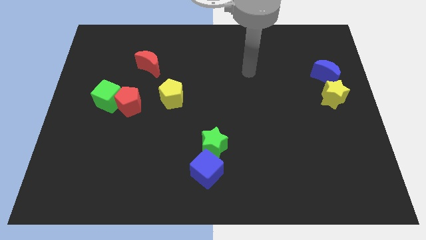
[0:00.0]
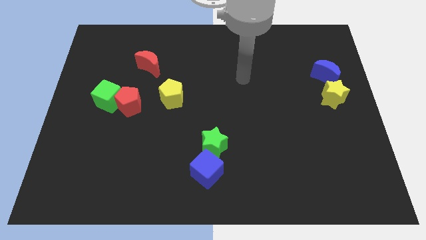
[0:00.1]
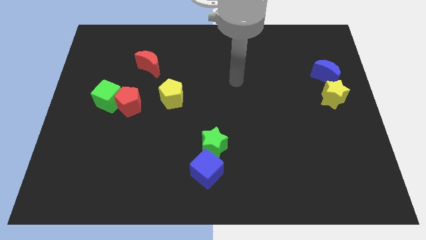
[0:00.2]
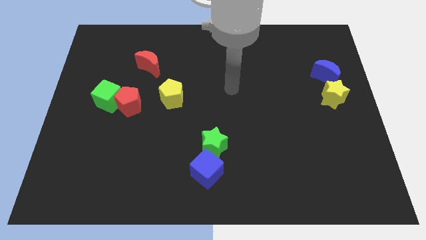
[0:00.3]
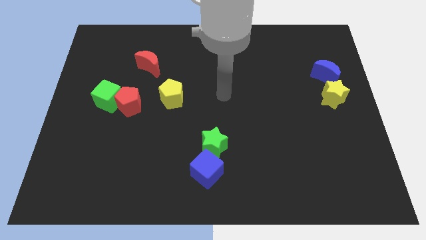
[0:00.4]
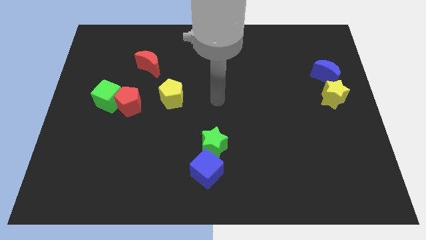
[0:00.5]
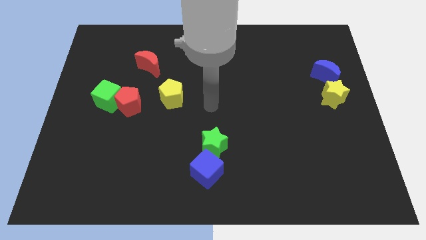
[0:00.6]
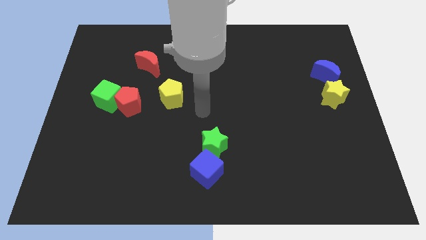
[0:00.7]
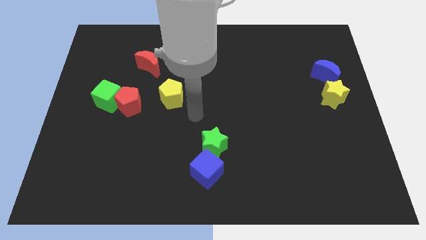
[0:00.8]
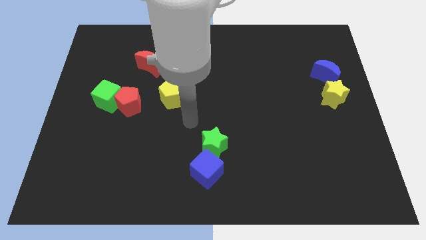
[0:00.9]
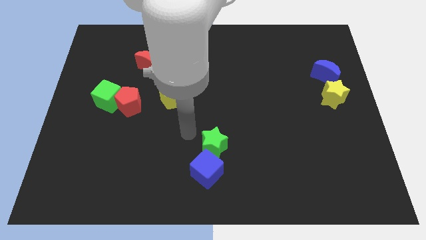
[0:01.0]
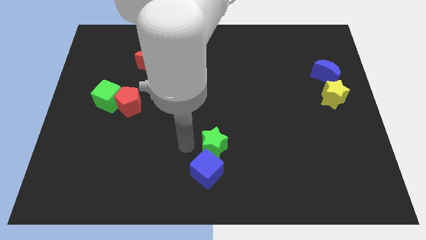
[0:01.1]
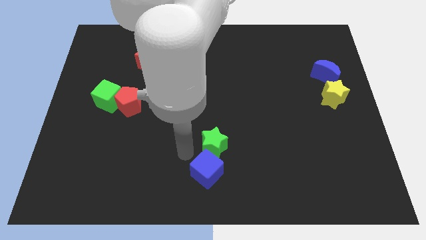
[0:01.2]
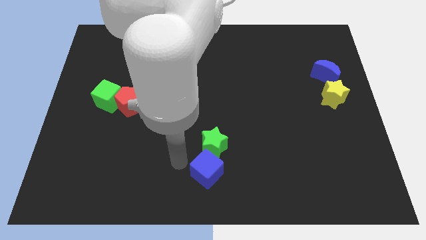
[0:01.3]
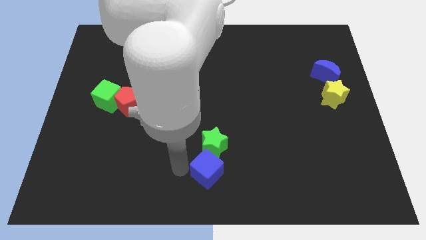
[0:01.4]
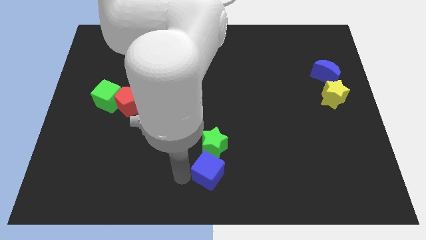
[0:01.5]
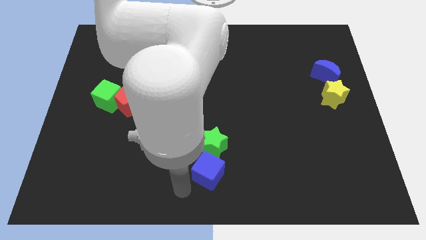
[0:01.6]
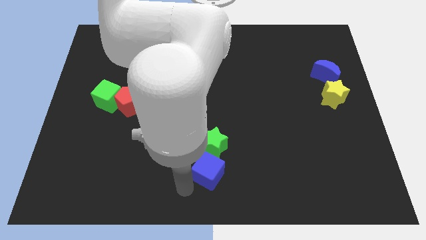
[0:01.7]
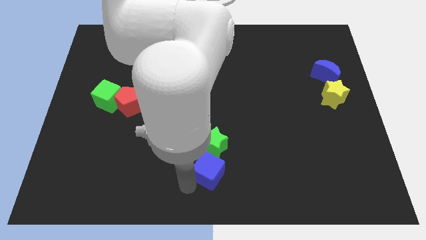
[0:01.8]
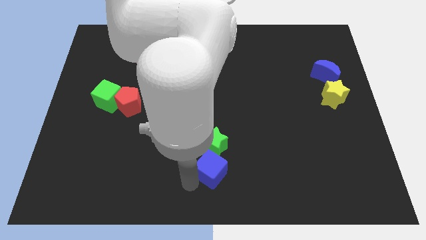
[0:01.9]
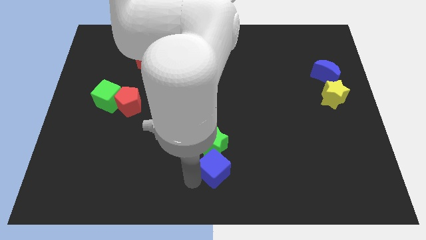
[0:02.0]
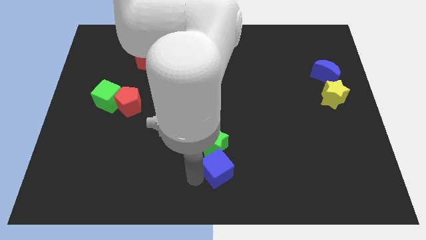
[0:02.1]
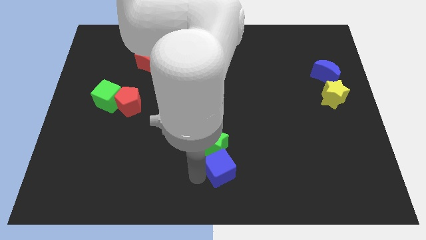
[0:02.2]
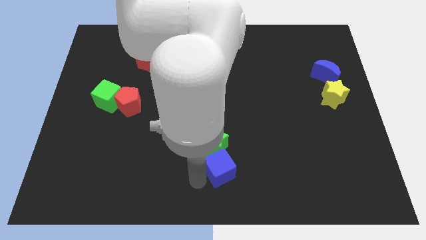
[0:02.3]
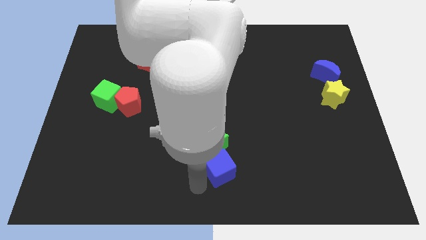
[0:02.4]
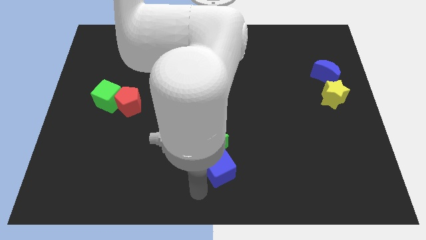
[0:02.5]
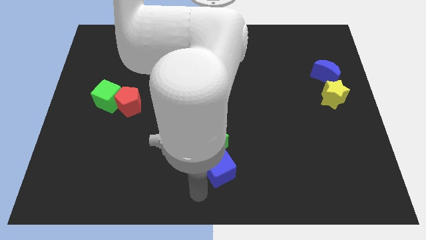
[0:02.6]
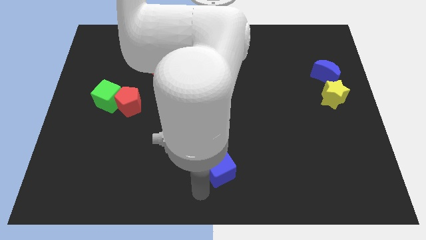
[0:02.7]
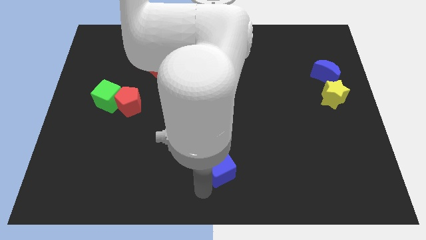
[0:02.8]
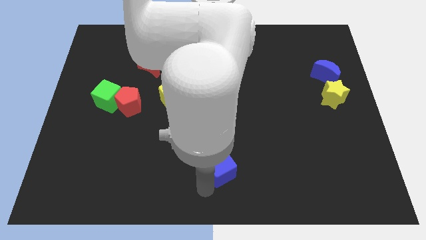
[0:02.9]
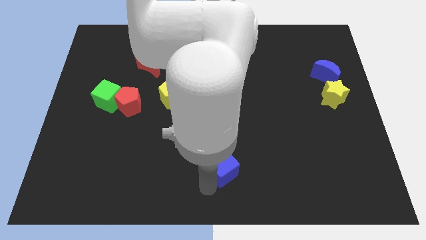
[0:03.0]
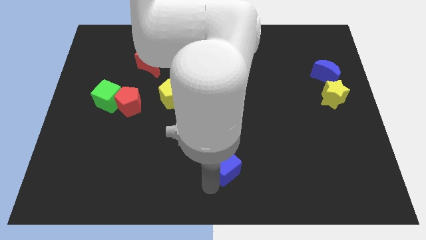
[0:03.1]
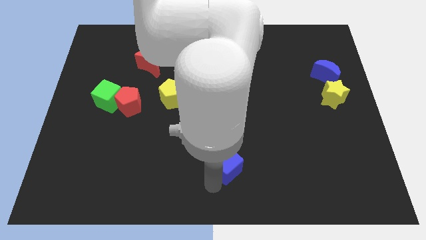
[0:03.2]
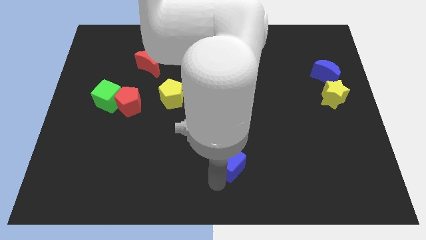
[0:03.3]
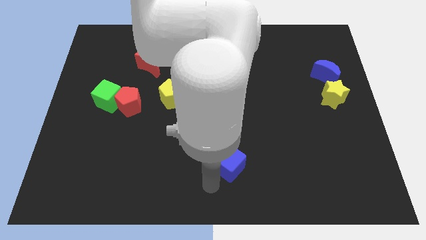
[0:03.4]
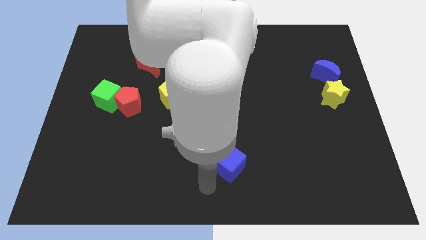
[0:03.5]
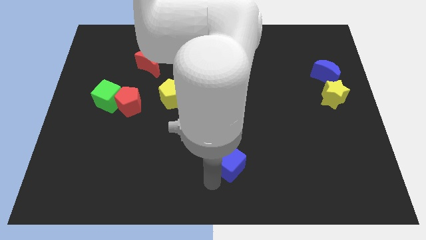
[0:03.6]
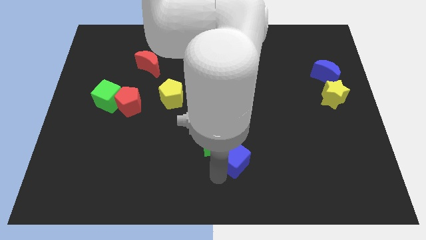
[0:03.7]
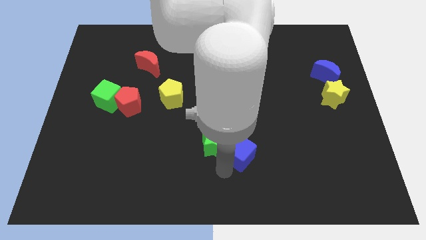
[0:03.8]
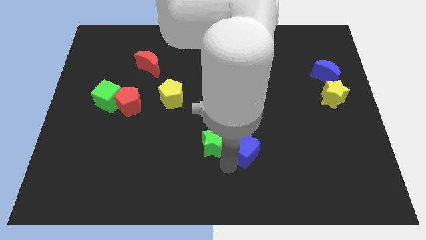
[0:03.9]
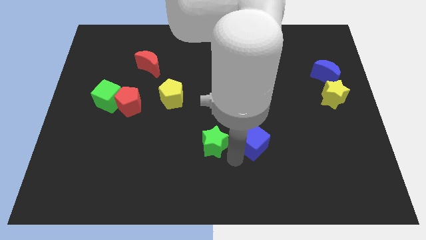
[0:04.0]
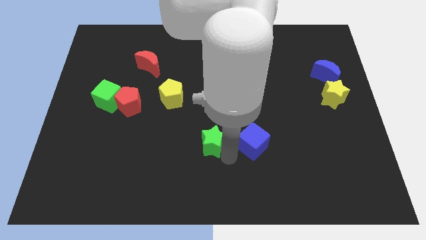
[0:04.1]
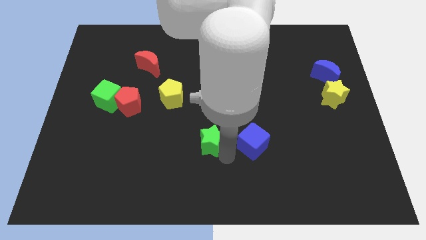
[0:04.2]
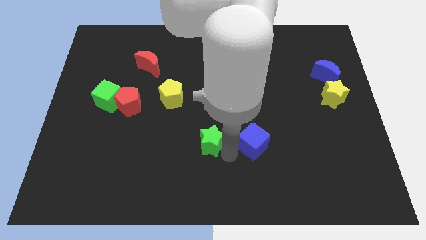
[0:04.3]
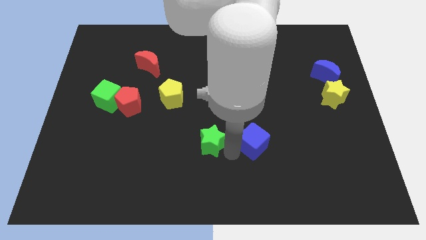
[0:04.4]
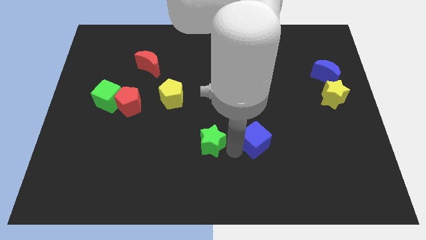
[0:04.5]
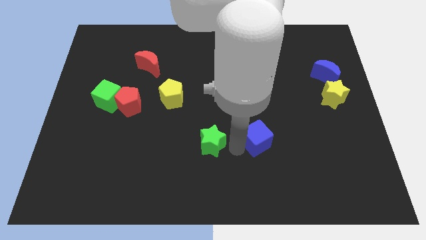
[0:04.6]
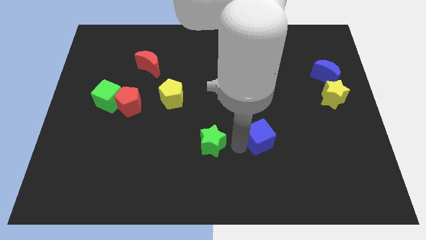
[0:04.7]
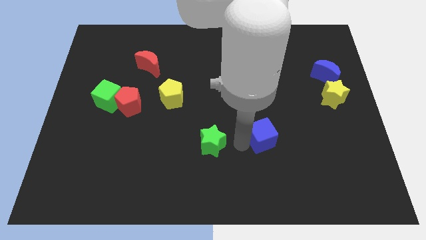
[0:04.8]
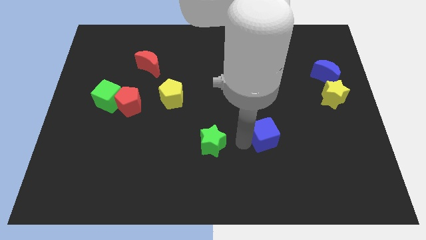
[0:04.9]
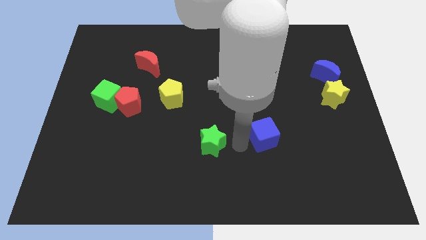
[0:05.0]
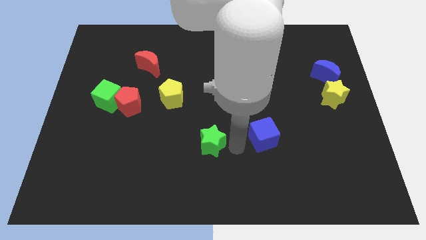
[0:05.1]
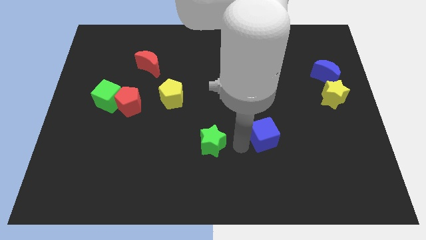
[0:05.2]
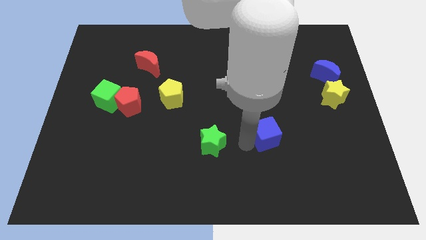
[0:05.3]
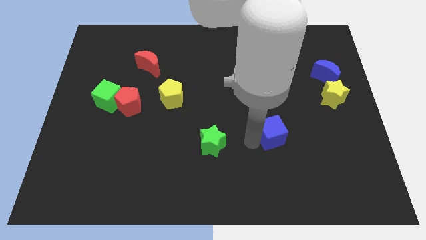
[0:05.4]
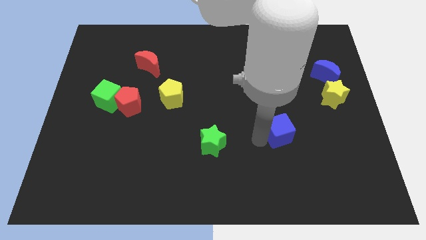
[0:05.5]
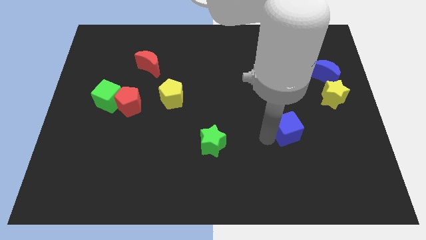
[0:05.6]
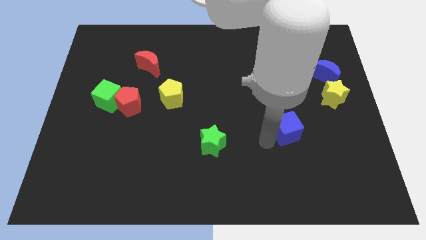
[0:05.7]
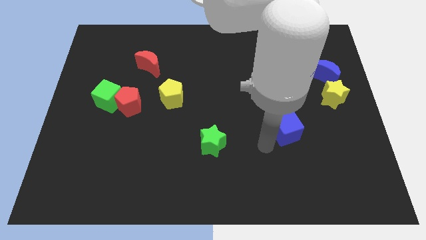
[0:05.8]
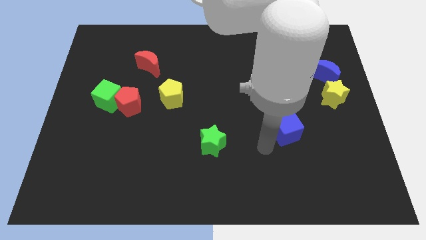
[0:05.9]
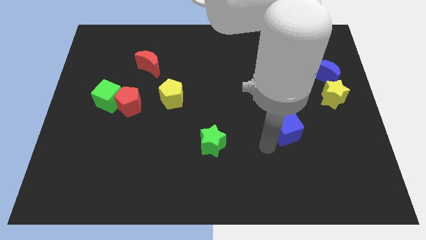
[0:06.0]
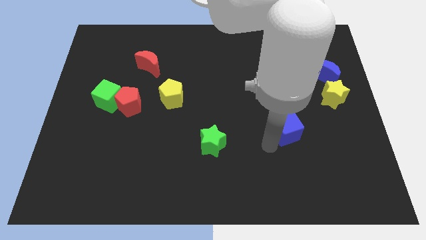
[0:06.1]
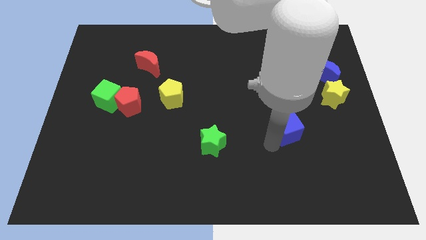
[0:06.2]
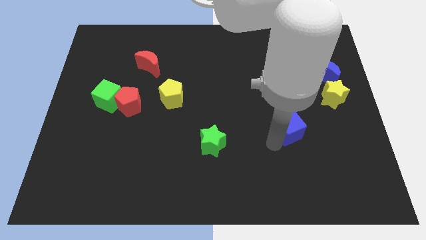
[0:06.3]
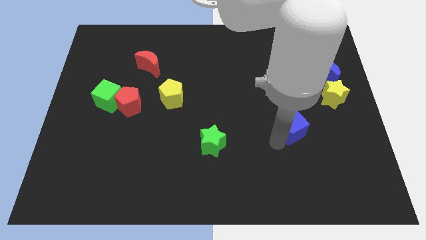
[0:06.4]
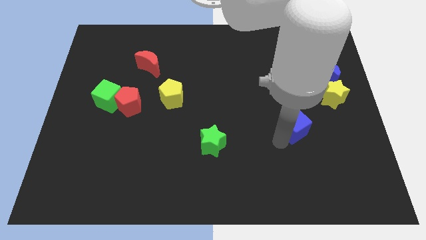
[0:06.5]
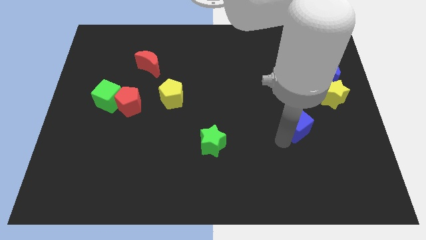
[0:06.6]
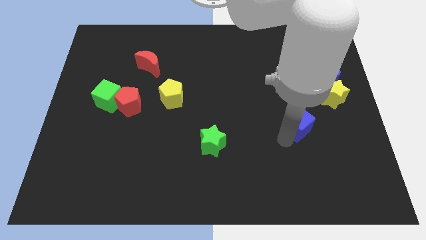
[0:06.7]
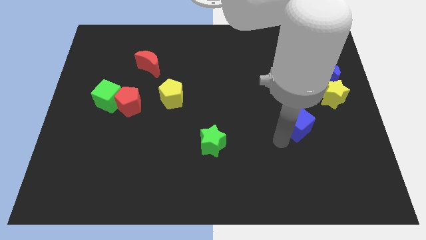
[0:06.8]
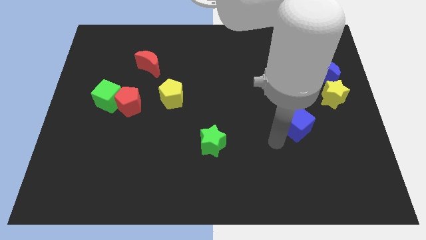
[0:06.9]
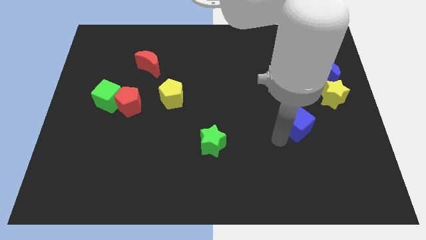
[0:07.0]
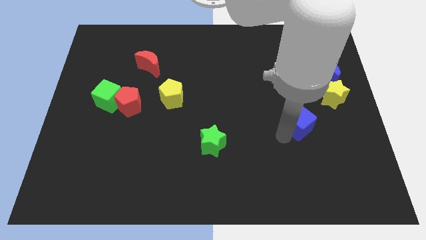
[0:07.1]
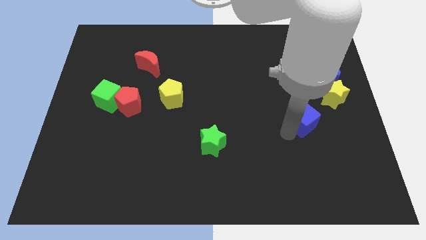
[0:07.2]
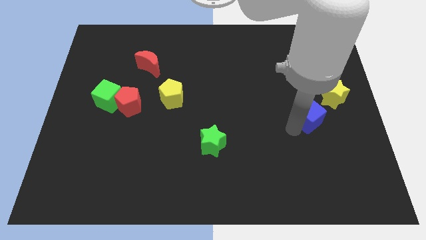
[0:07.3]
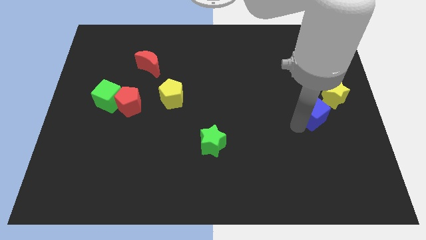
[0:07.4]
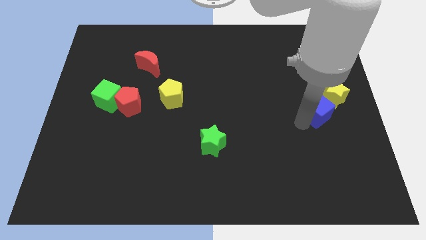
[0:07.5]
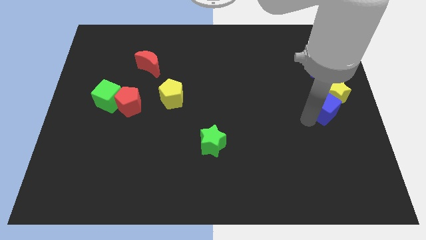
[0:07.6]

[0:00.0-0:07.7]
slide the blue cube to the yellow star

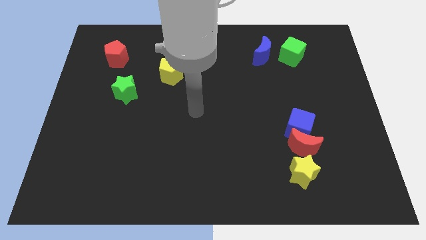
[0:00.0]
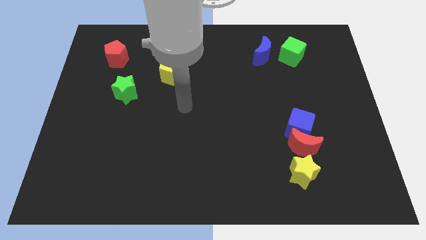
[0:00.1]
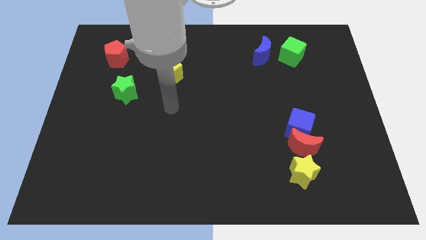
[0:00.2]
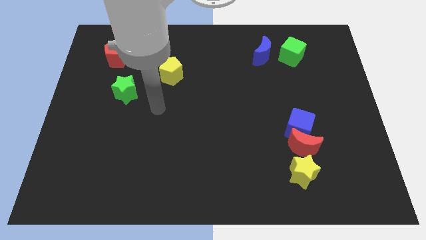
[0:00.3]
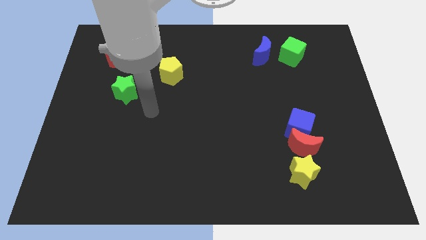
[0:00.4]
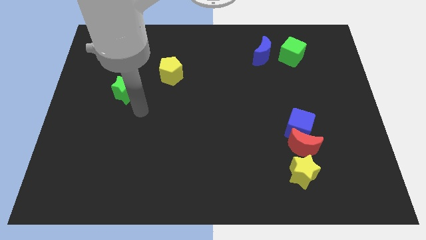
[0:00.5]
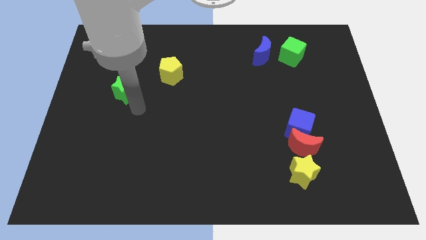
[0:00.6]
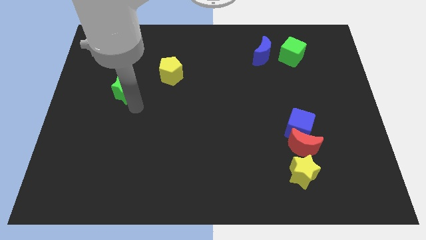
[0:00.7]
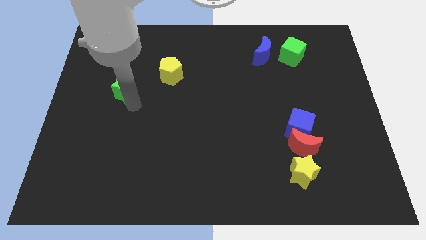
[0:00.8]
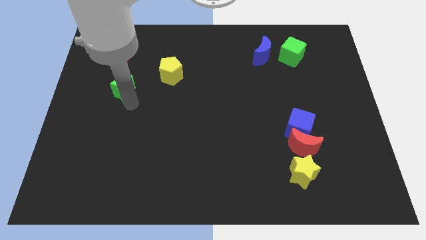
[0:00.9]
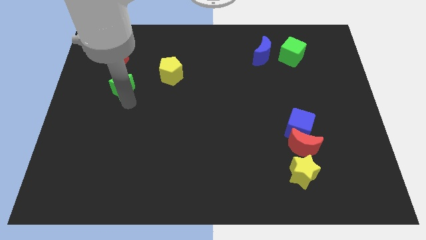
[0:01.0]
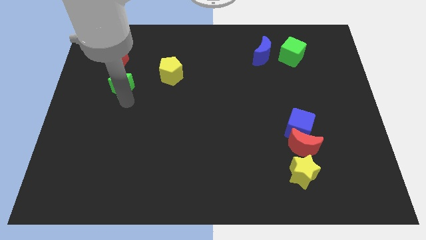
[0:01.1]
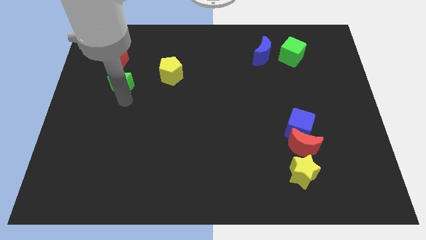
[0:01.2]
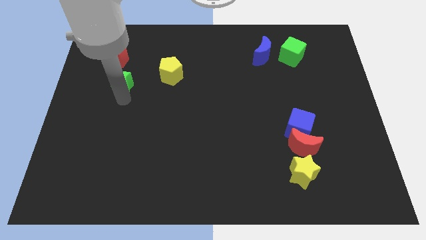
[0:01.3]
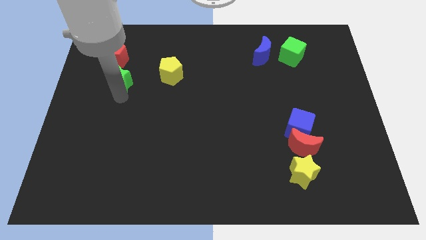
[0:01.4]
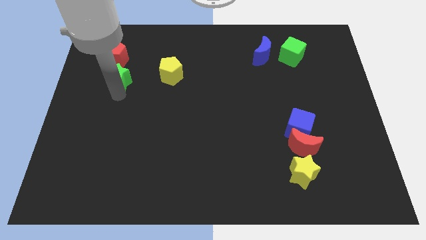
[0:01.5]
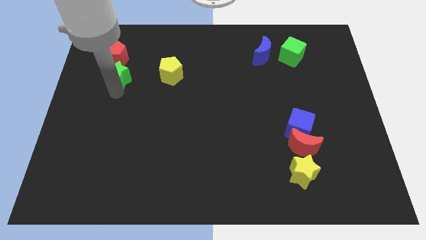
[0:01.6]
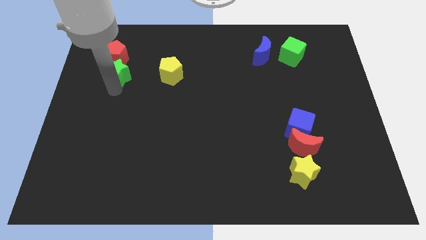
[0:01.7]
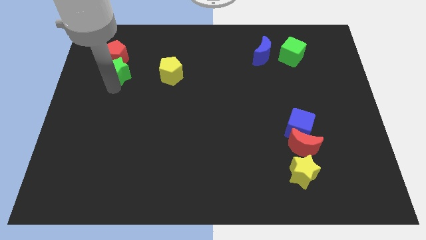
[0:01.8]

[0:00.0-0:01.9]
move the green star towards the red pentagon
